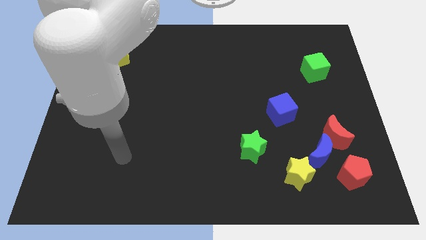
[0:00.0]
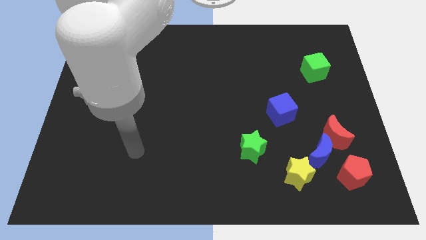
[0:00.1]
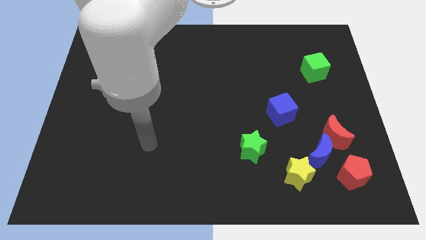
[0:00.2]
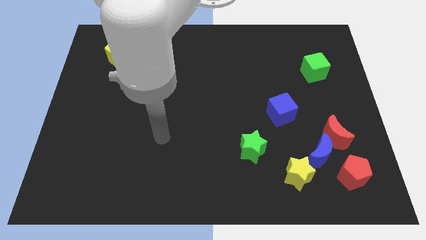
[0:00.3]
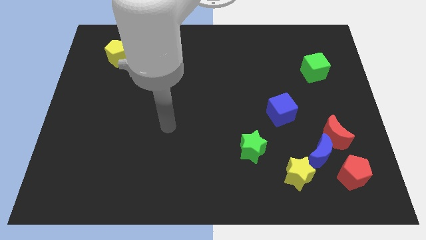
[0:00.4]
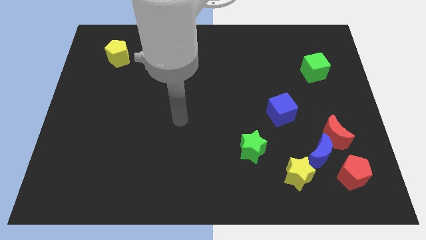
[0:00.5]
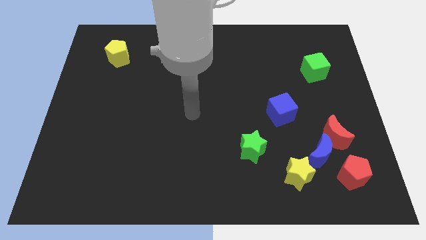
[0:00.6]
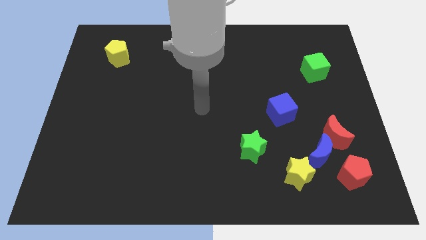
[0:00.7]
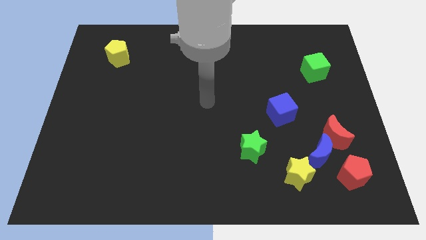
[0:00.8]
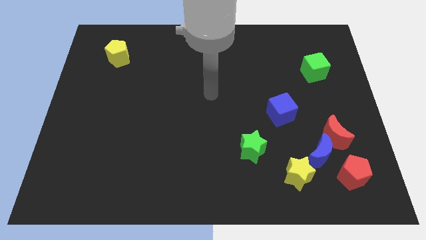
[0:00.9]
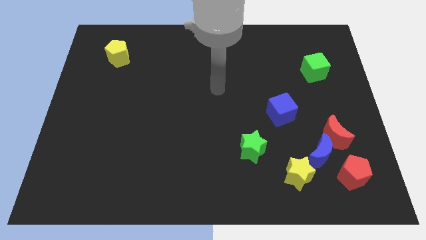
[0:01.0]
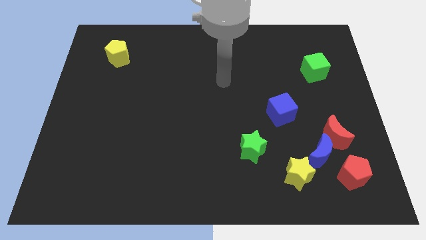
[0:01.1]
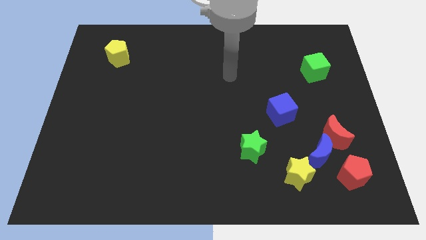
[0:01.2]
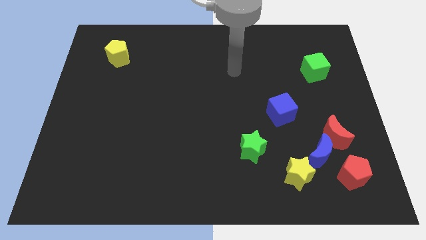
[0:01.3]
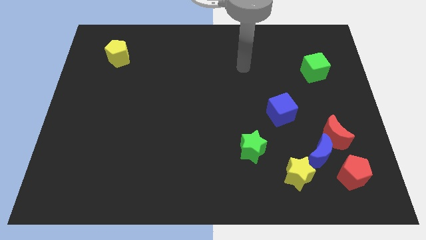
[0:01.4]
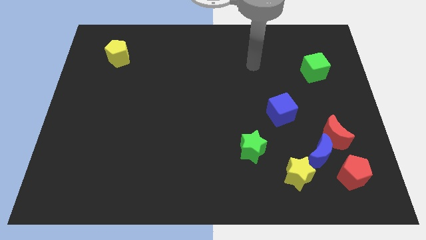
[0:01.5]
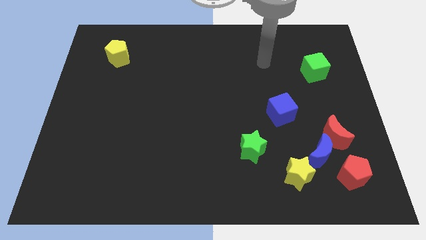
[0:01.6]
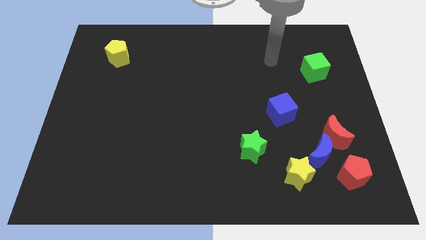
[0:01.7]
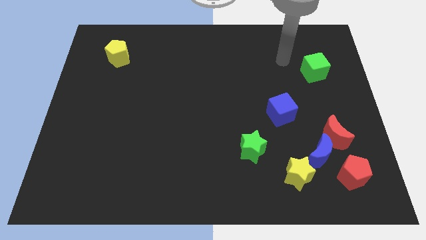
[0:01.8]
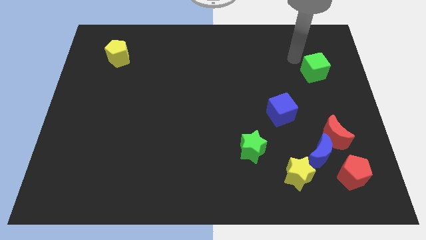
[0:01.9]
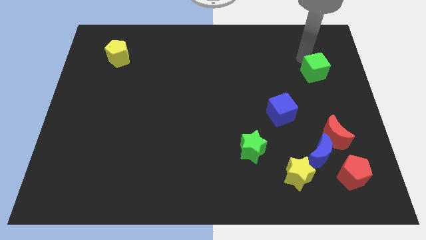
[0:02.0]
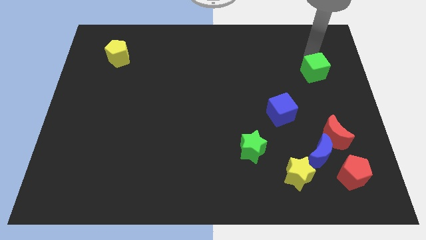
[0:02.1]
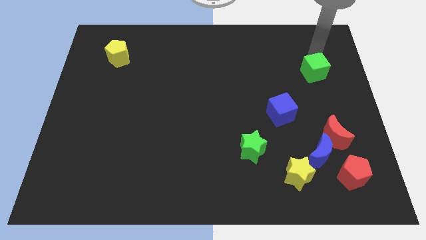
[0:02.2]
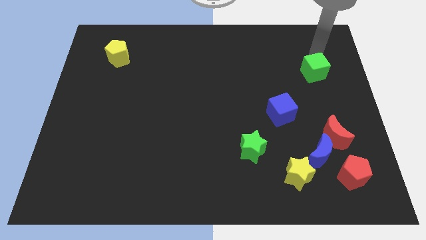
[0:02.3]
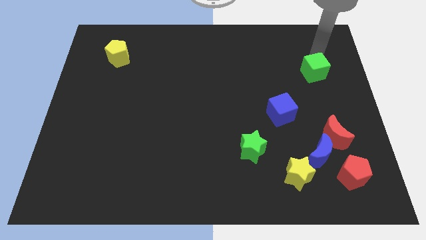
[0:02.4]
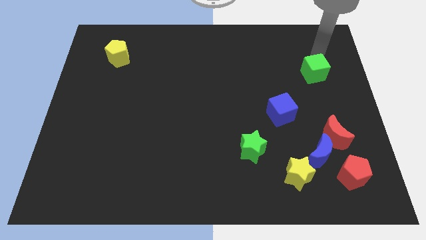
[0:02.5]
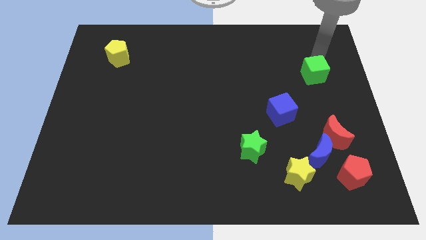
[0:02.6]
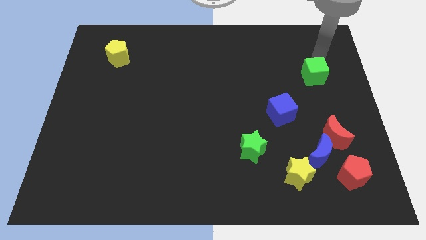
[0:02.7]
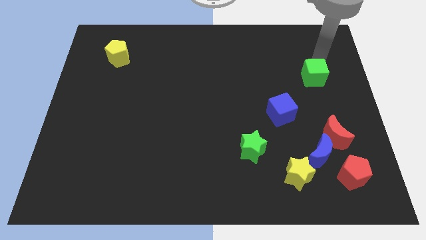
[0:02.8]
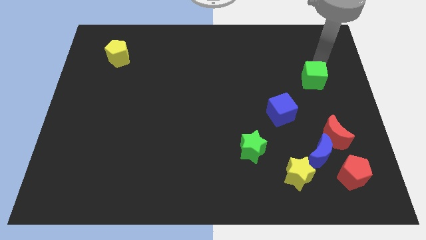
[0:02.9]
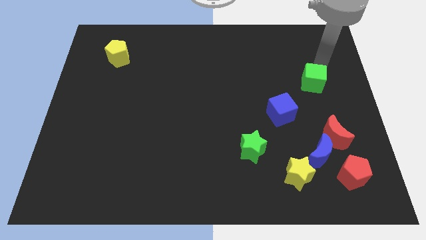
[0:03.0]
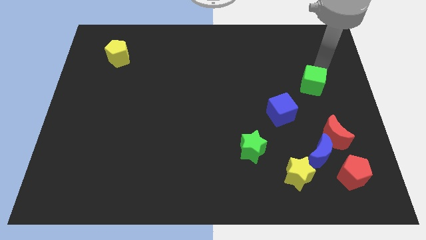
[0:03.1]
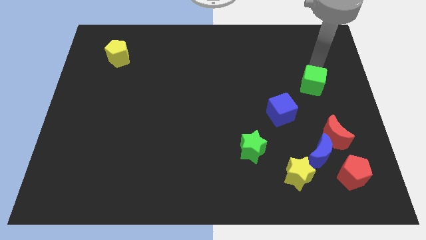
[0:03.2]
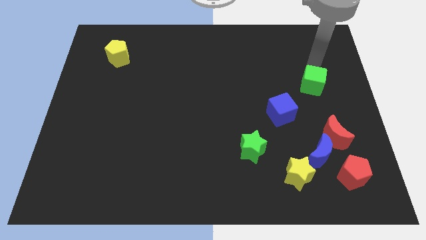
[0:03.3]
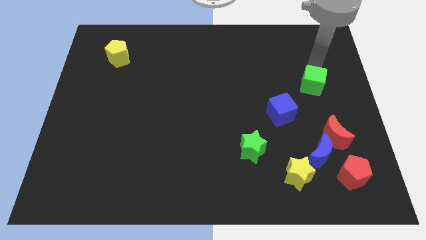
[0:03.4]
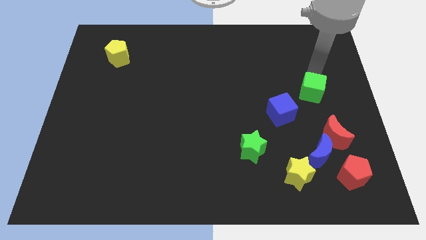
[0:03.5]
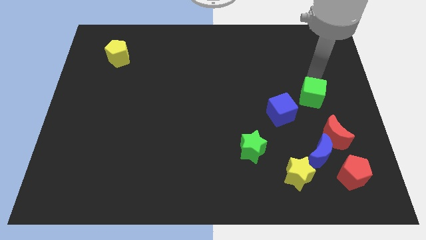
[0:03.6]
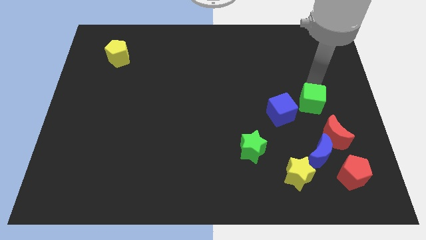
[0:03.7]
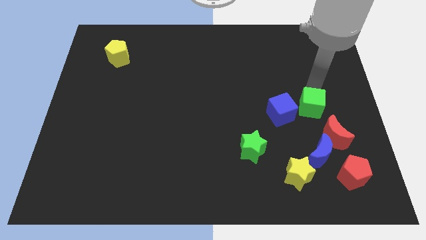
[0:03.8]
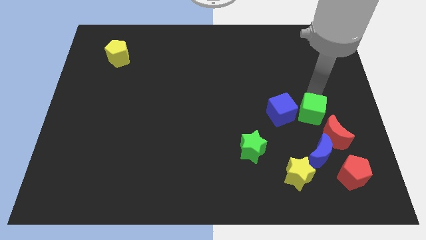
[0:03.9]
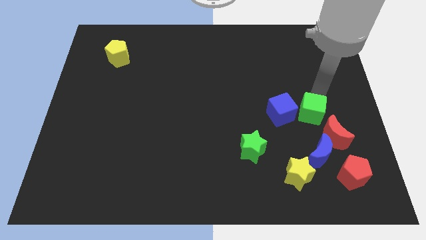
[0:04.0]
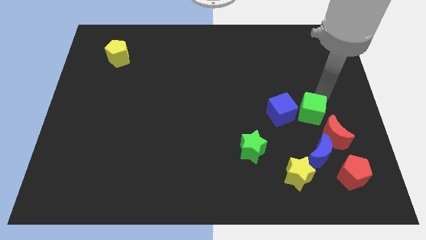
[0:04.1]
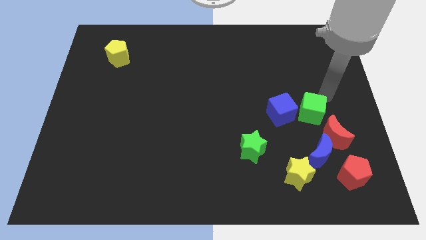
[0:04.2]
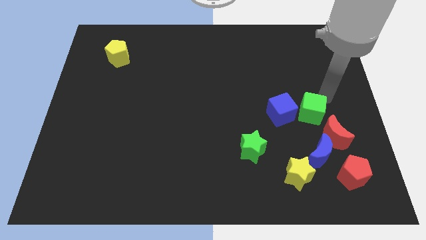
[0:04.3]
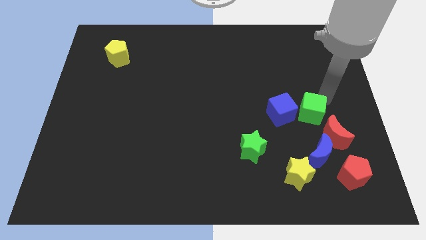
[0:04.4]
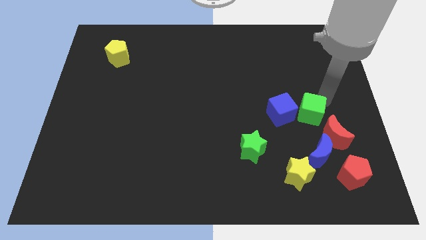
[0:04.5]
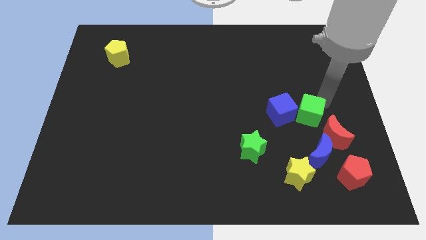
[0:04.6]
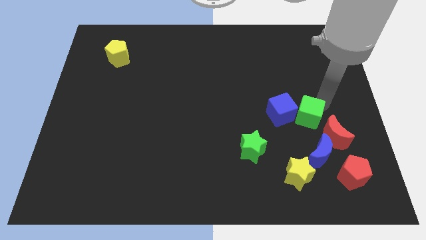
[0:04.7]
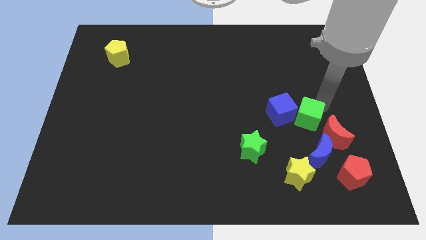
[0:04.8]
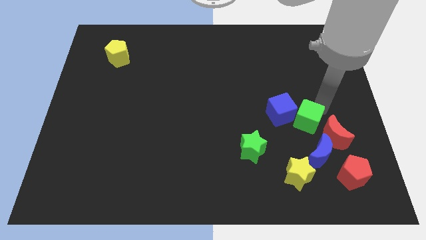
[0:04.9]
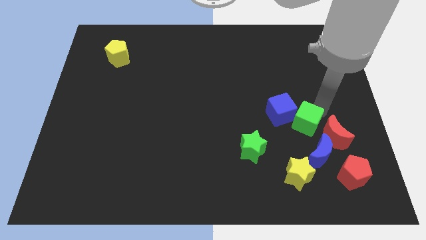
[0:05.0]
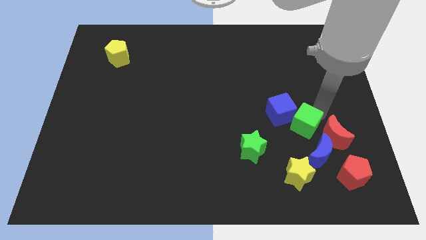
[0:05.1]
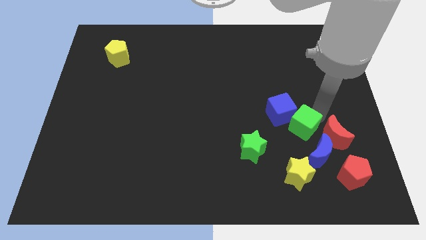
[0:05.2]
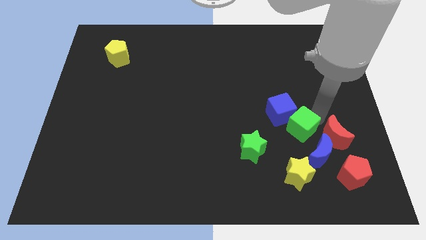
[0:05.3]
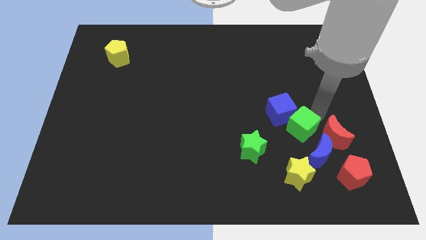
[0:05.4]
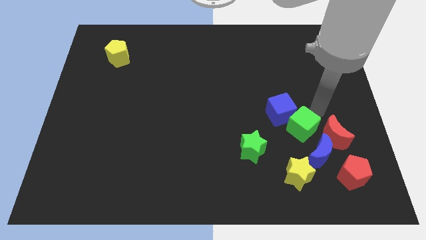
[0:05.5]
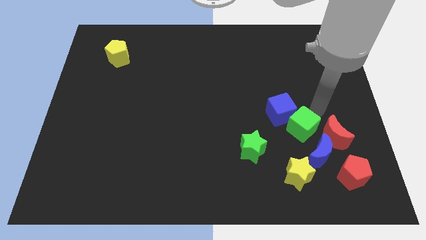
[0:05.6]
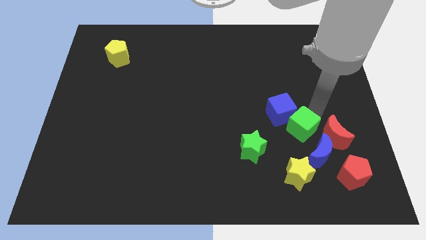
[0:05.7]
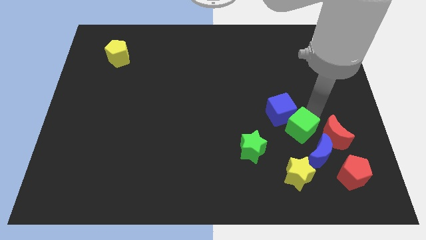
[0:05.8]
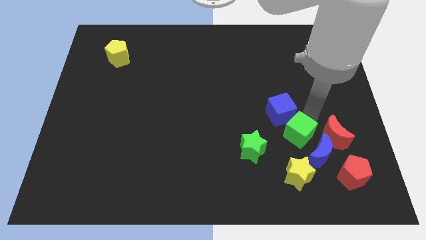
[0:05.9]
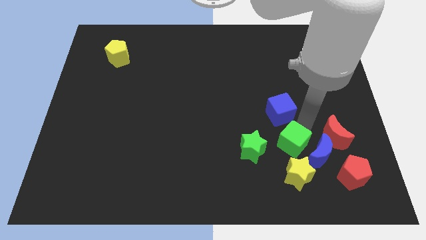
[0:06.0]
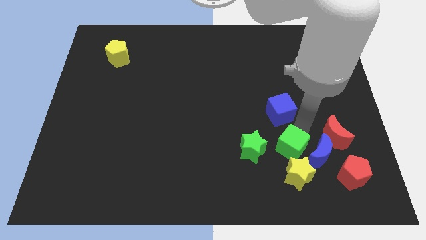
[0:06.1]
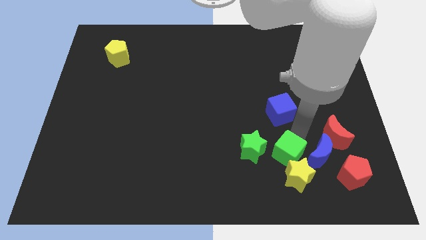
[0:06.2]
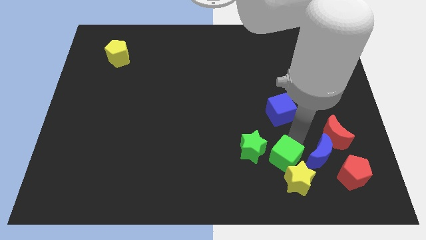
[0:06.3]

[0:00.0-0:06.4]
move the green cube to the left of the red pentagon

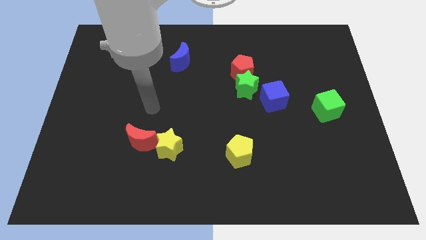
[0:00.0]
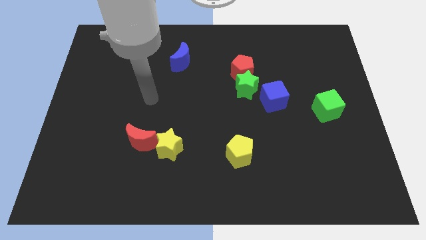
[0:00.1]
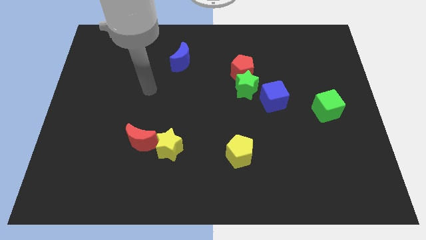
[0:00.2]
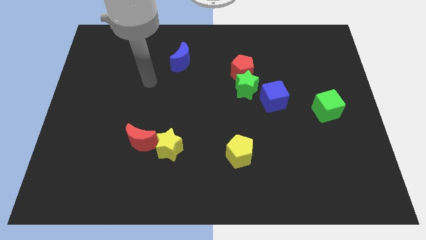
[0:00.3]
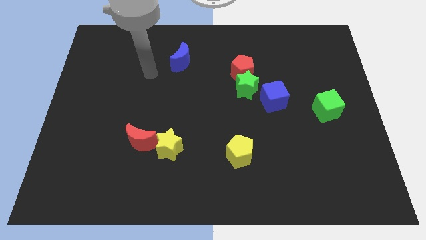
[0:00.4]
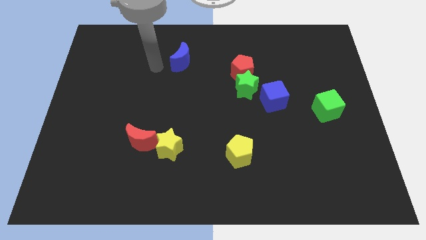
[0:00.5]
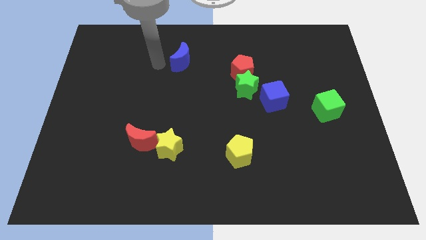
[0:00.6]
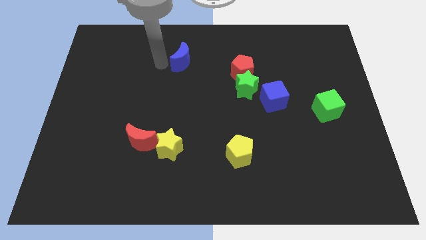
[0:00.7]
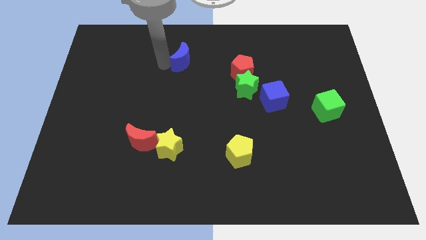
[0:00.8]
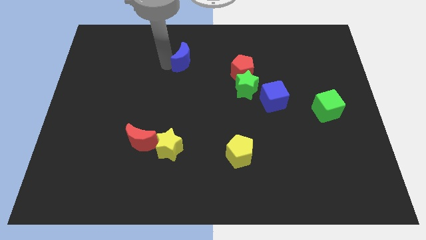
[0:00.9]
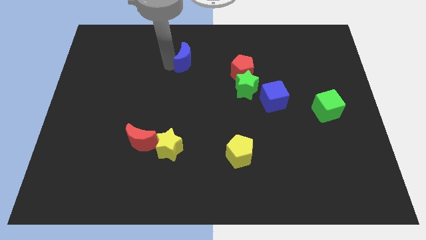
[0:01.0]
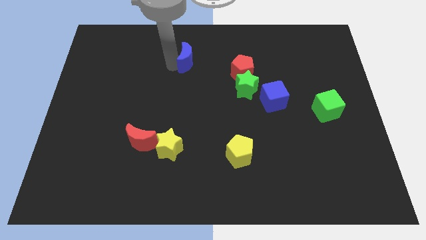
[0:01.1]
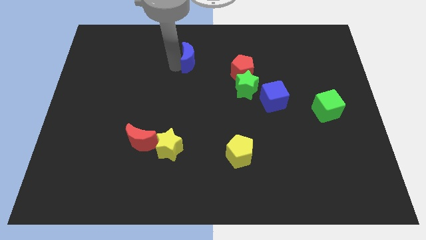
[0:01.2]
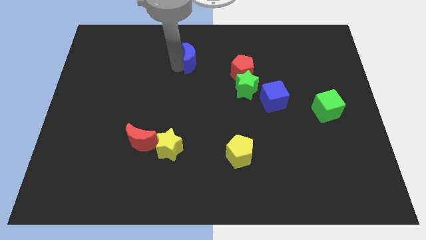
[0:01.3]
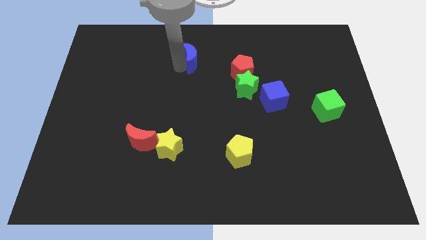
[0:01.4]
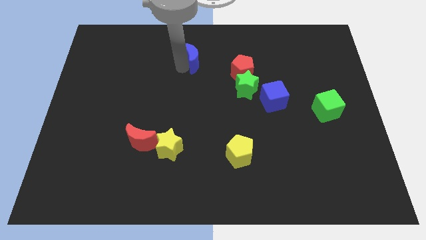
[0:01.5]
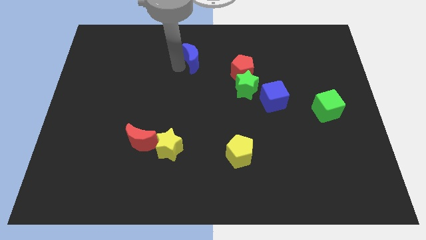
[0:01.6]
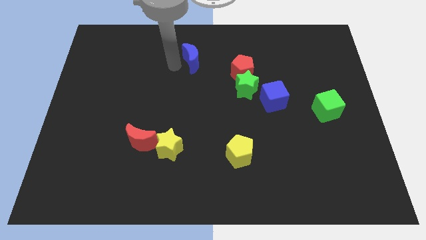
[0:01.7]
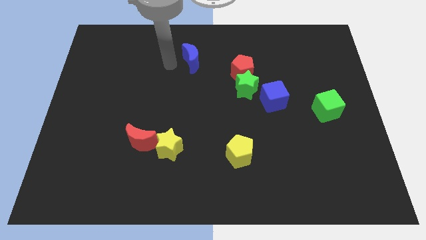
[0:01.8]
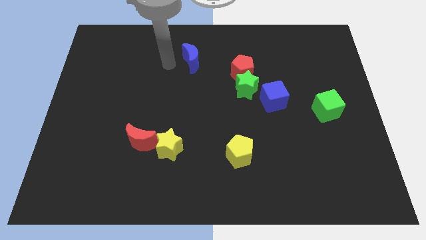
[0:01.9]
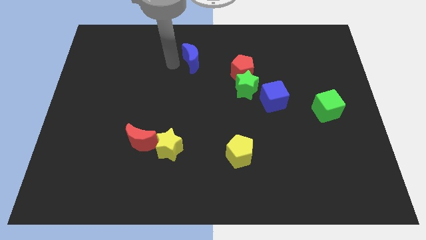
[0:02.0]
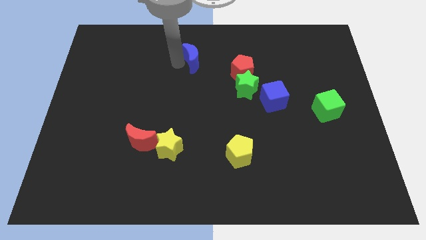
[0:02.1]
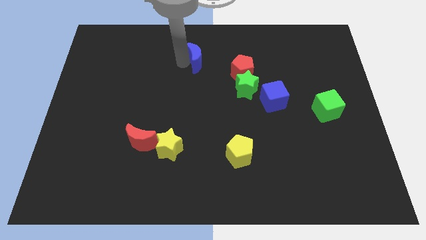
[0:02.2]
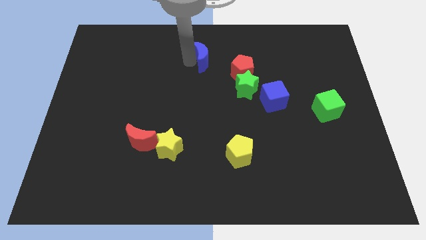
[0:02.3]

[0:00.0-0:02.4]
slide the blue moon to the top left of the red pentagon
